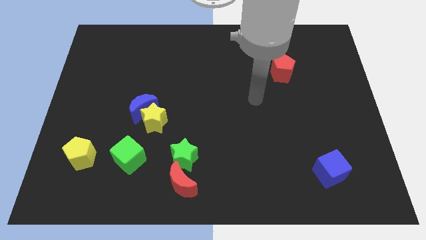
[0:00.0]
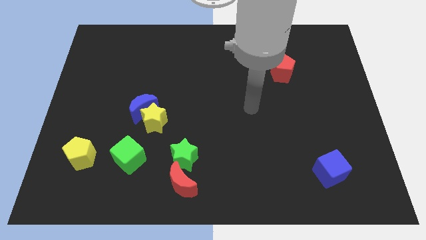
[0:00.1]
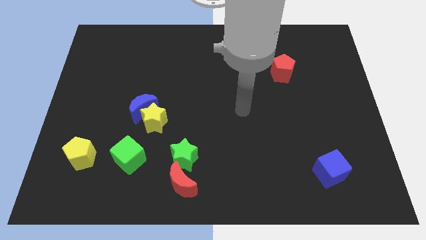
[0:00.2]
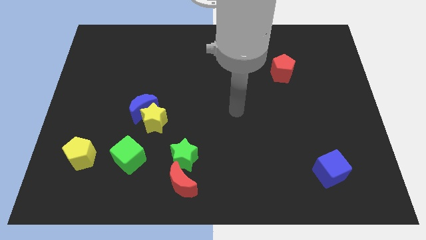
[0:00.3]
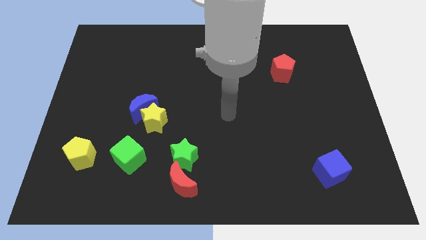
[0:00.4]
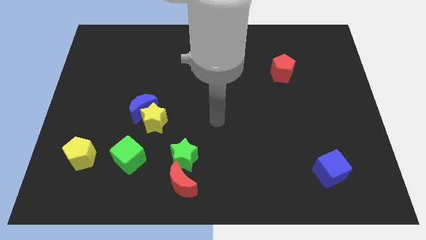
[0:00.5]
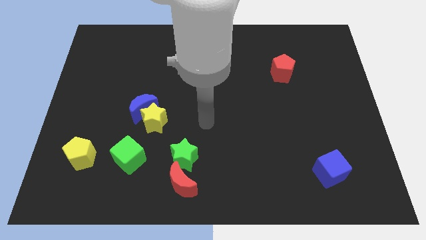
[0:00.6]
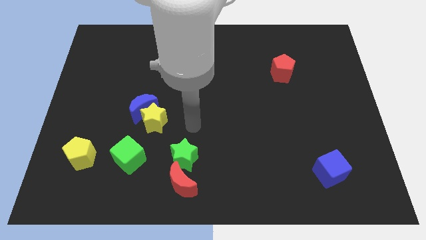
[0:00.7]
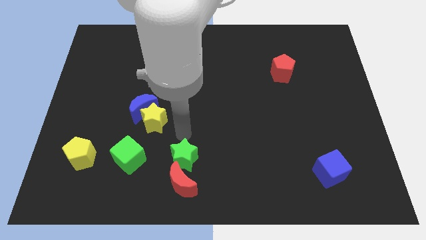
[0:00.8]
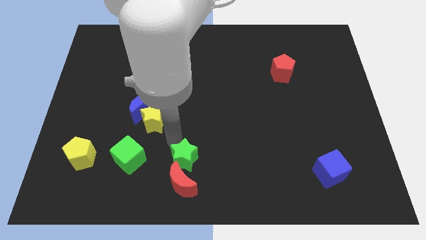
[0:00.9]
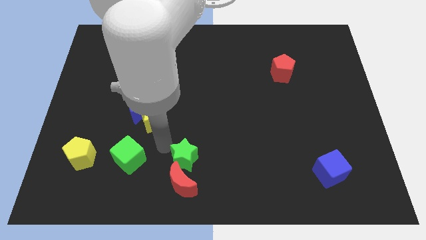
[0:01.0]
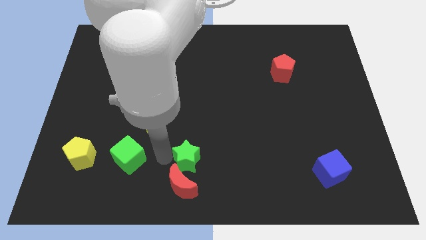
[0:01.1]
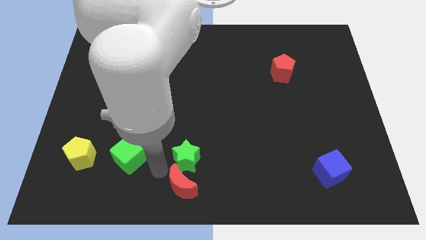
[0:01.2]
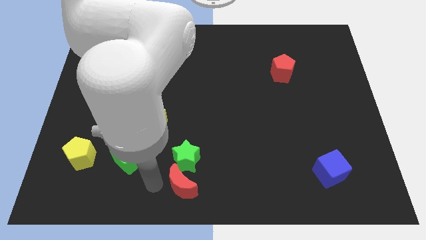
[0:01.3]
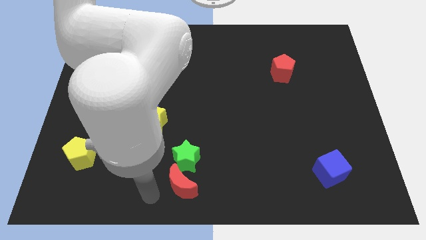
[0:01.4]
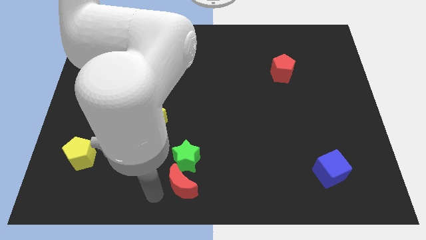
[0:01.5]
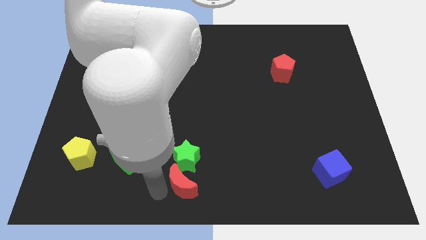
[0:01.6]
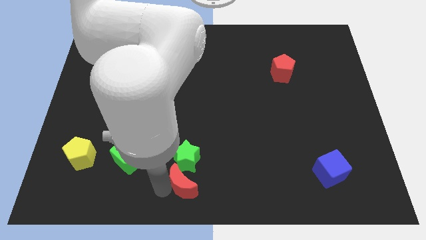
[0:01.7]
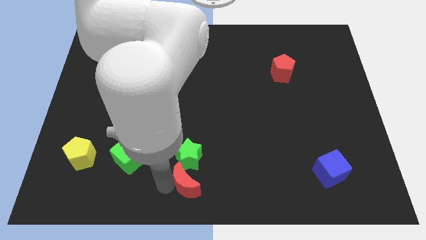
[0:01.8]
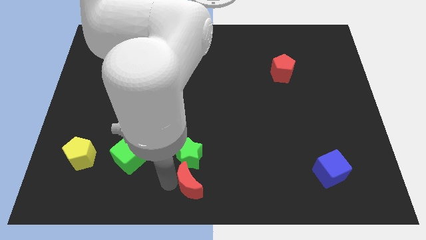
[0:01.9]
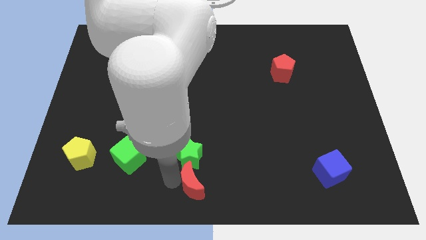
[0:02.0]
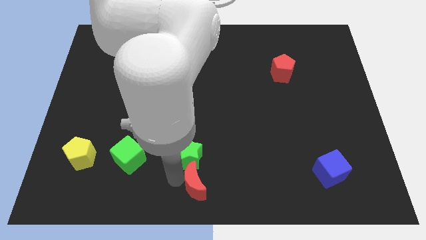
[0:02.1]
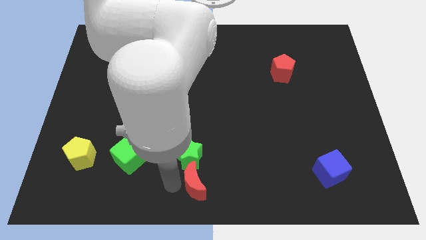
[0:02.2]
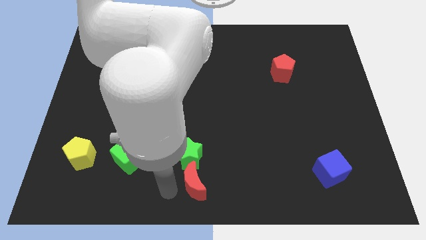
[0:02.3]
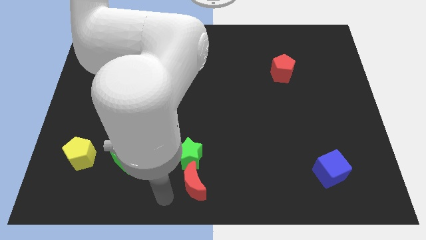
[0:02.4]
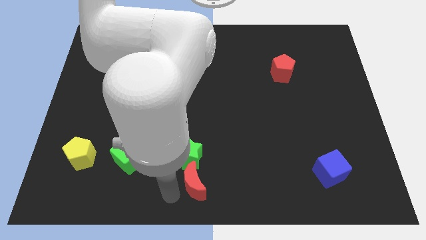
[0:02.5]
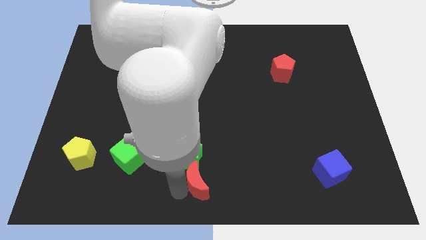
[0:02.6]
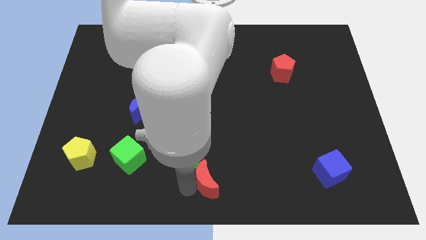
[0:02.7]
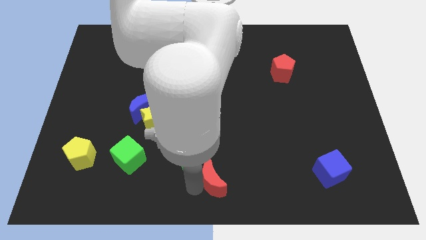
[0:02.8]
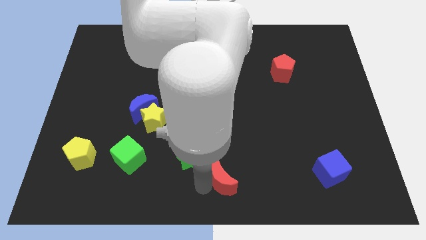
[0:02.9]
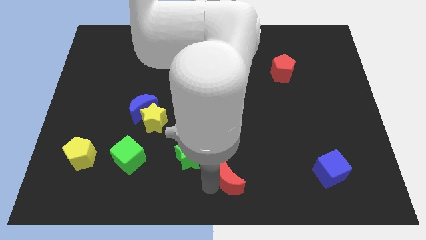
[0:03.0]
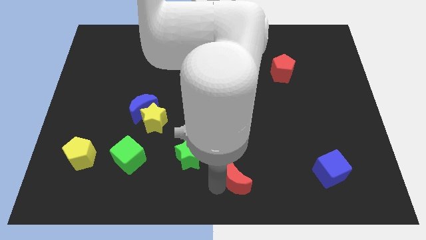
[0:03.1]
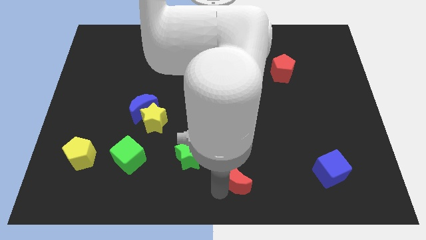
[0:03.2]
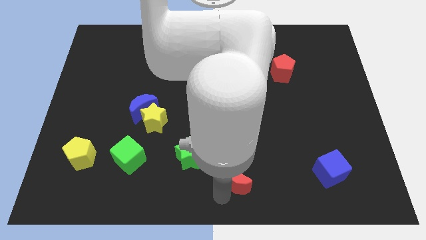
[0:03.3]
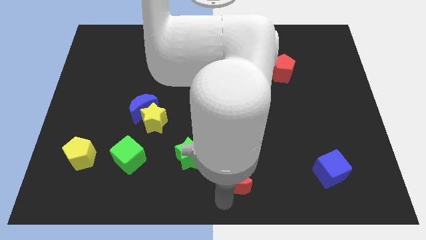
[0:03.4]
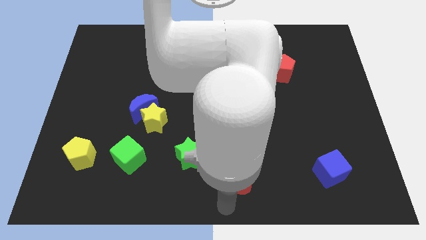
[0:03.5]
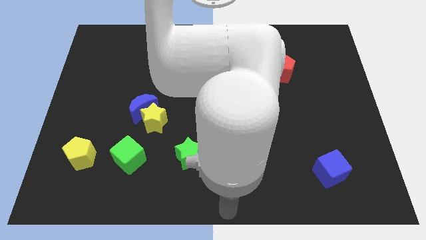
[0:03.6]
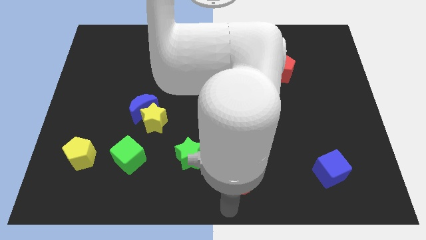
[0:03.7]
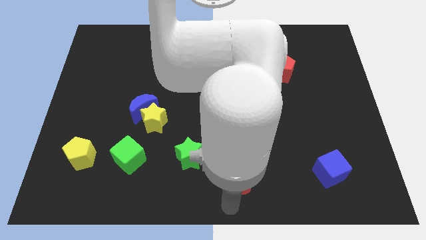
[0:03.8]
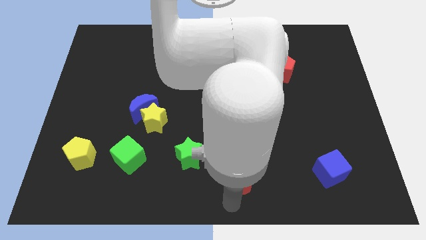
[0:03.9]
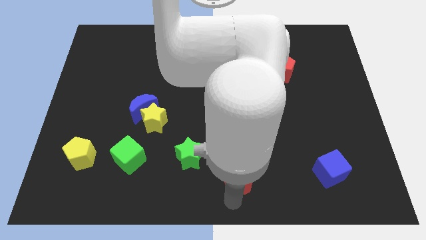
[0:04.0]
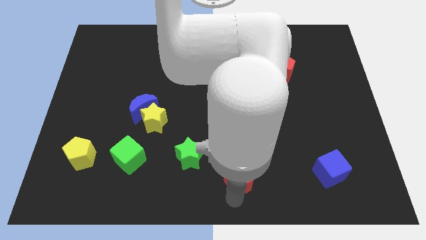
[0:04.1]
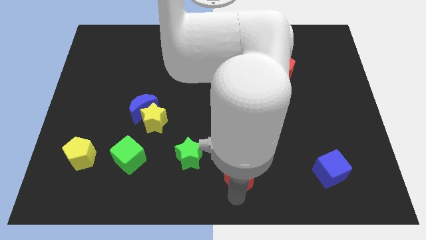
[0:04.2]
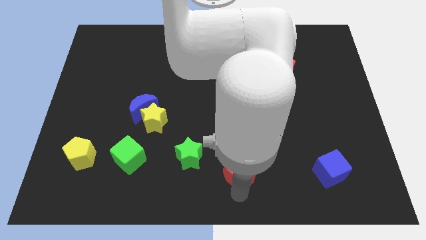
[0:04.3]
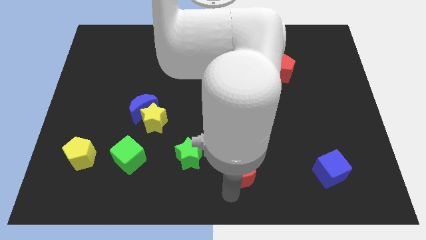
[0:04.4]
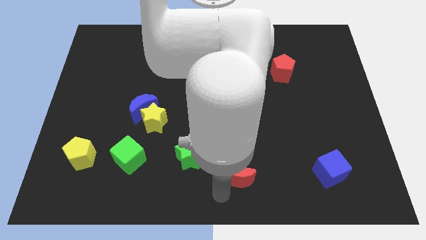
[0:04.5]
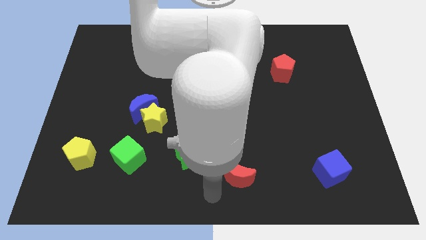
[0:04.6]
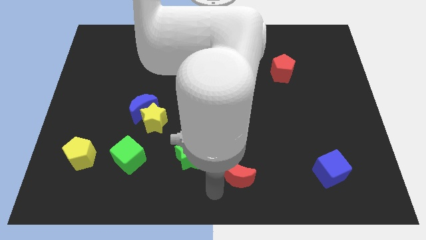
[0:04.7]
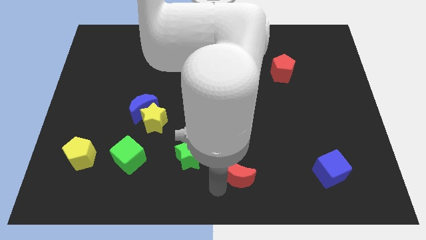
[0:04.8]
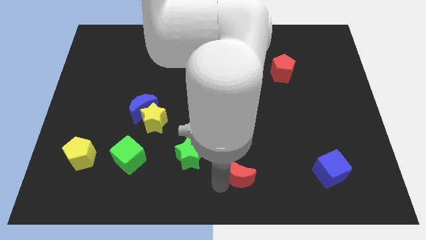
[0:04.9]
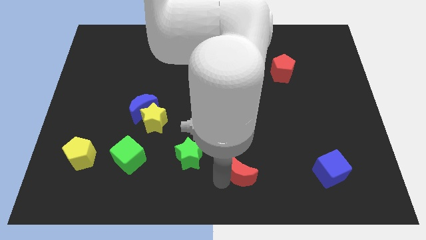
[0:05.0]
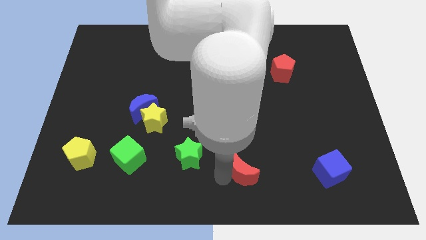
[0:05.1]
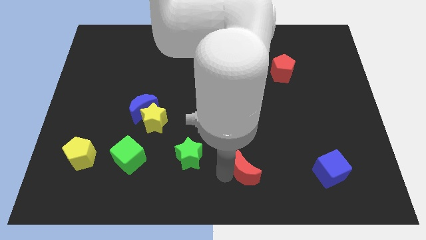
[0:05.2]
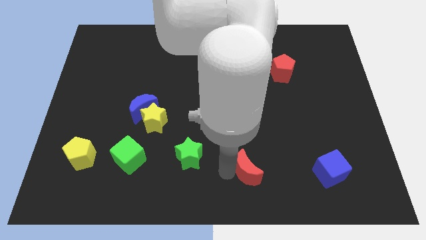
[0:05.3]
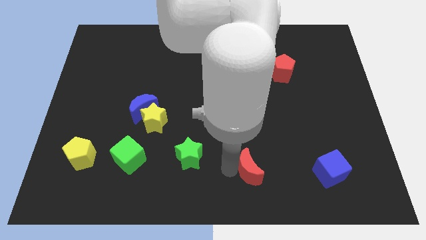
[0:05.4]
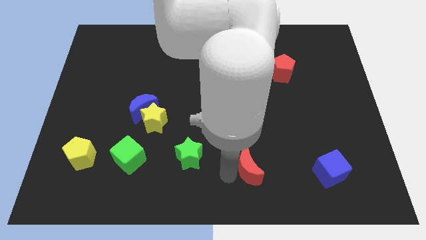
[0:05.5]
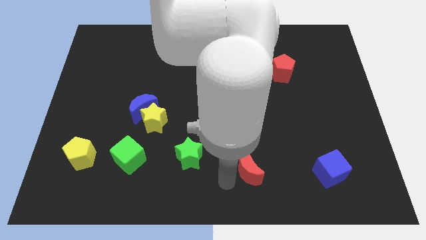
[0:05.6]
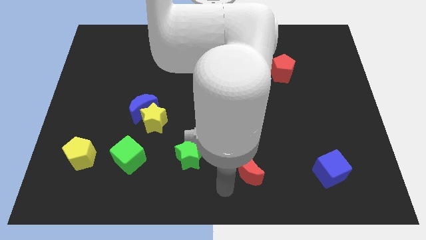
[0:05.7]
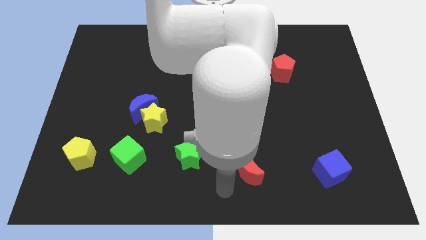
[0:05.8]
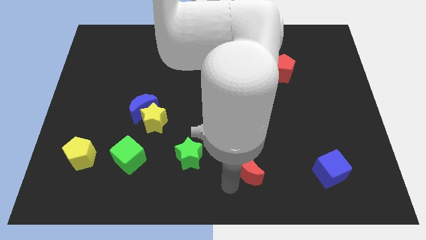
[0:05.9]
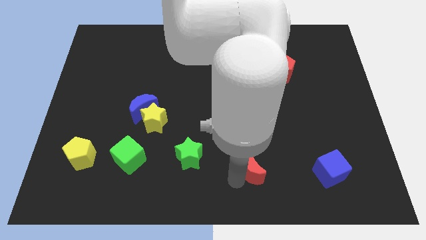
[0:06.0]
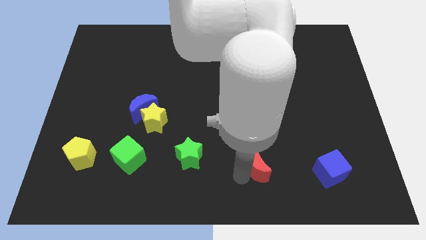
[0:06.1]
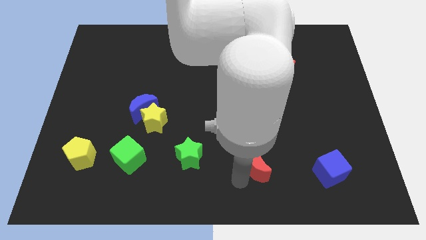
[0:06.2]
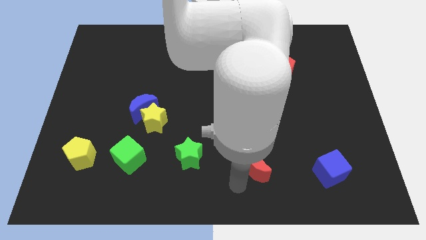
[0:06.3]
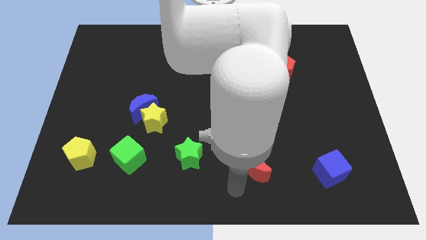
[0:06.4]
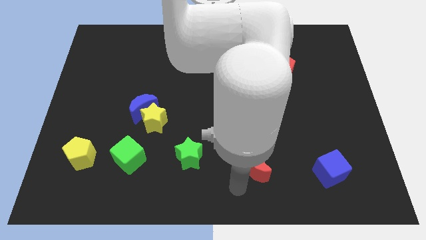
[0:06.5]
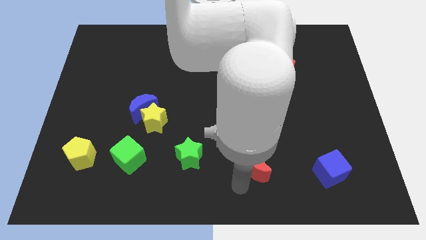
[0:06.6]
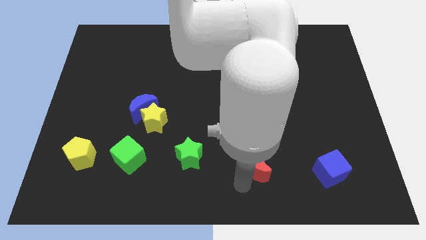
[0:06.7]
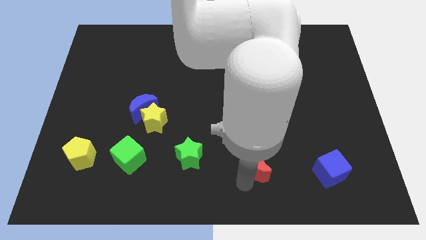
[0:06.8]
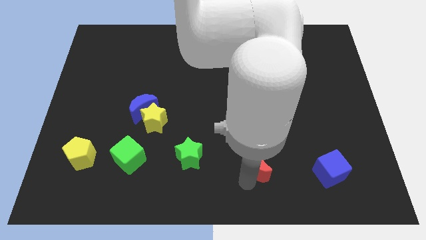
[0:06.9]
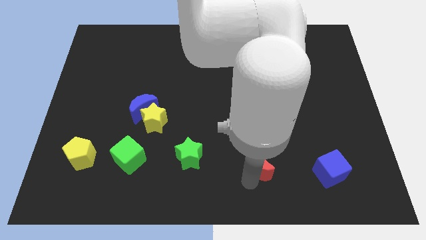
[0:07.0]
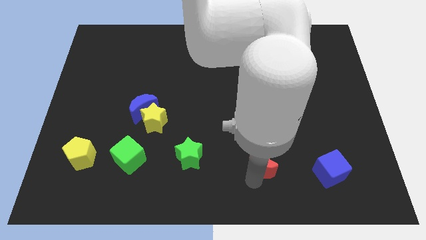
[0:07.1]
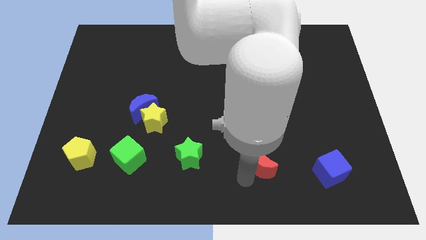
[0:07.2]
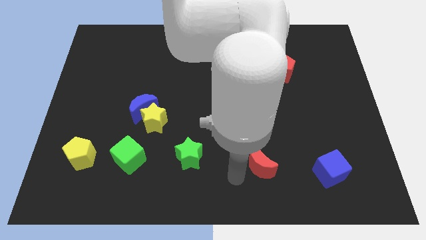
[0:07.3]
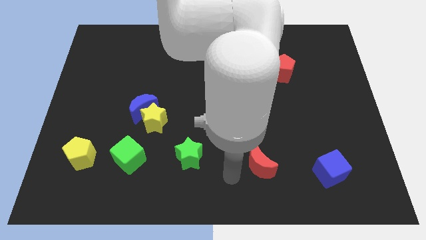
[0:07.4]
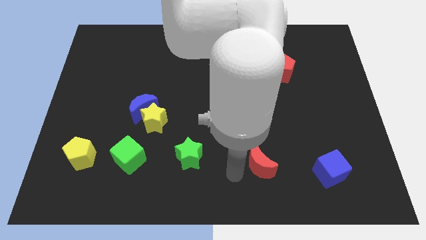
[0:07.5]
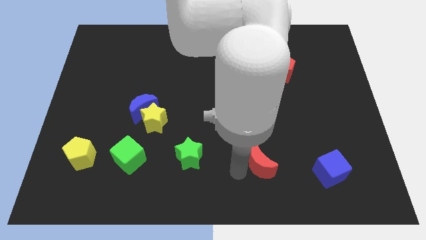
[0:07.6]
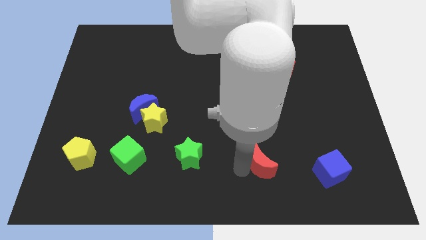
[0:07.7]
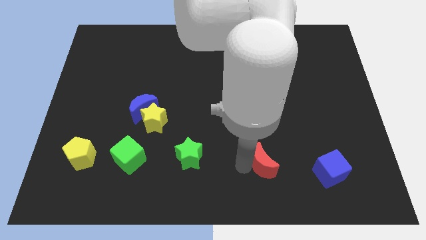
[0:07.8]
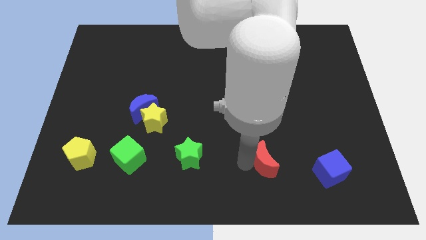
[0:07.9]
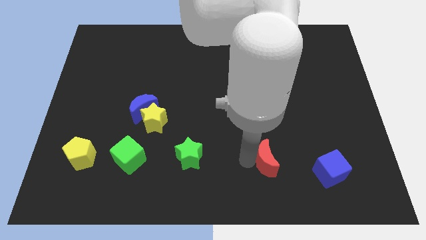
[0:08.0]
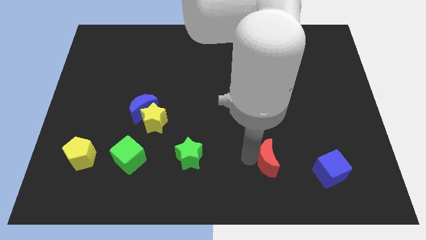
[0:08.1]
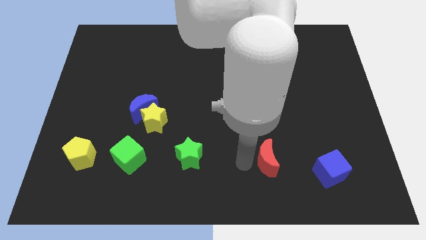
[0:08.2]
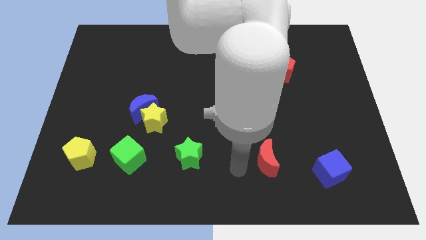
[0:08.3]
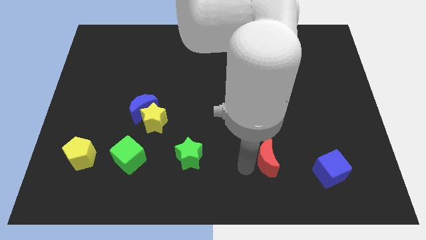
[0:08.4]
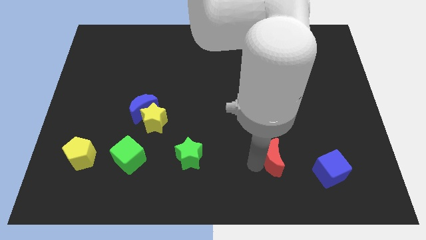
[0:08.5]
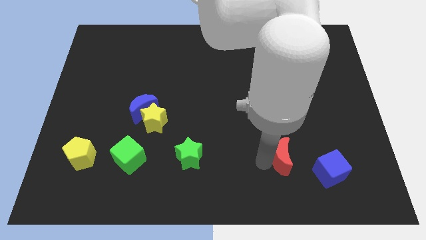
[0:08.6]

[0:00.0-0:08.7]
move the red moon diagonally up and to the left of the blue cube
